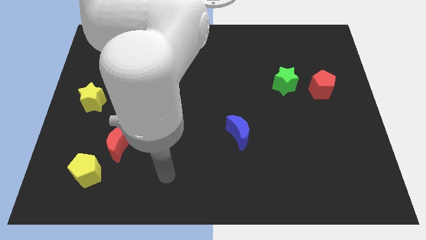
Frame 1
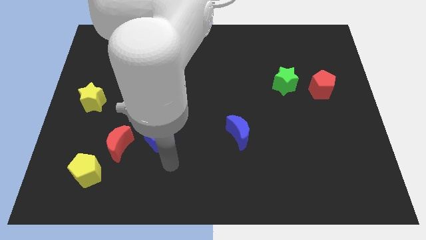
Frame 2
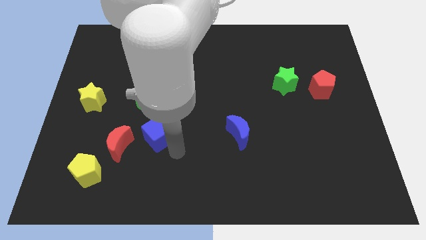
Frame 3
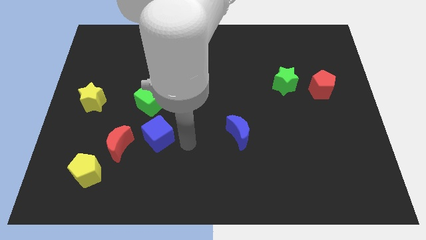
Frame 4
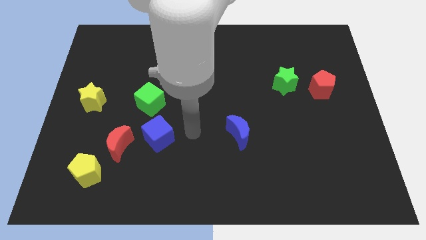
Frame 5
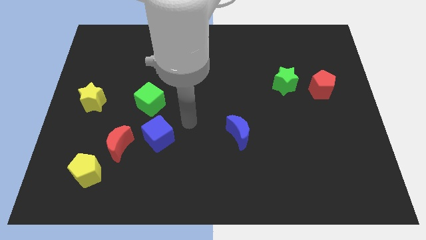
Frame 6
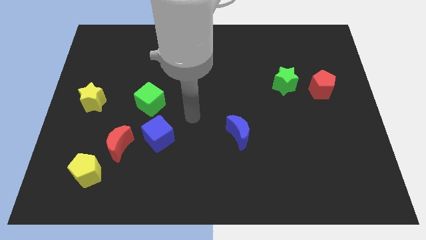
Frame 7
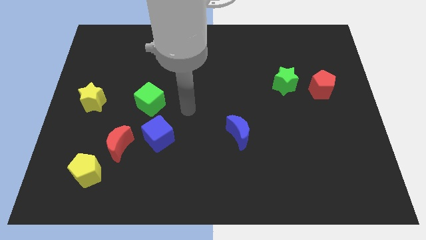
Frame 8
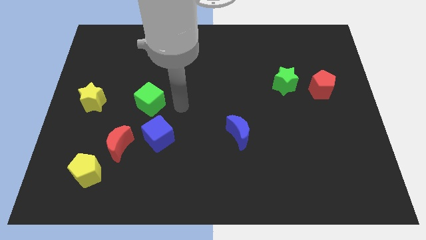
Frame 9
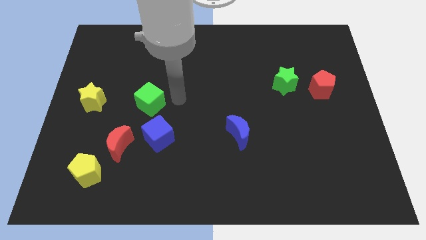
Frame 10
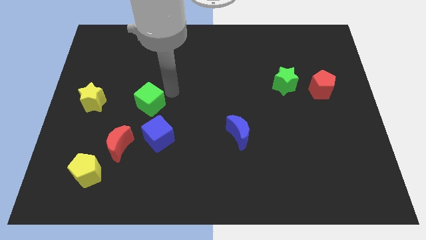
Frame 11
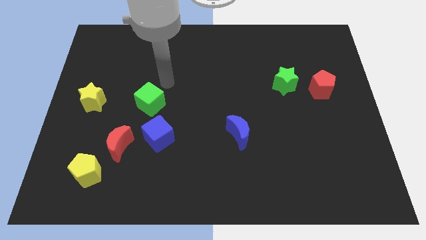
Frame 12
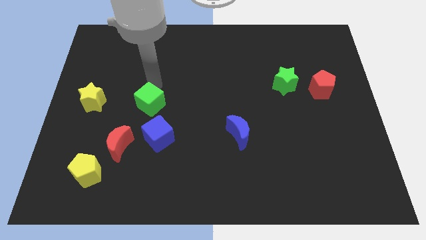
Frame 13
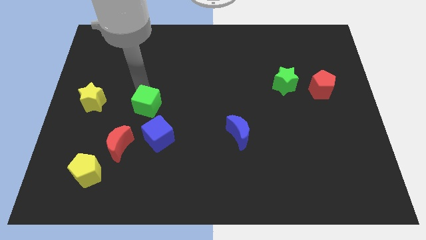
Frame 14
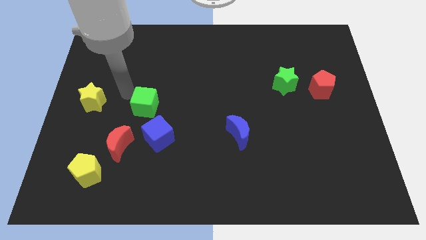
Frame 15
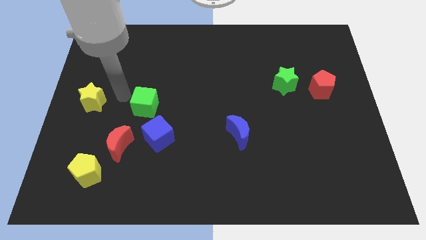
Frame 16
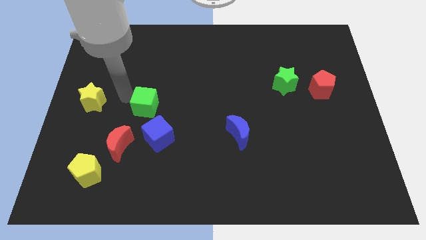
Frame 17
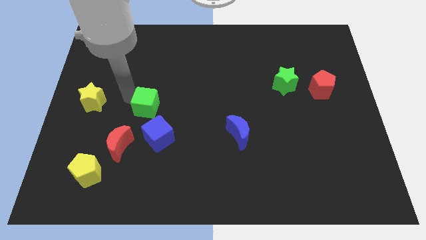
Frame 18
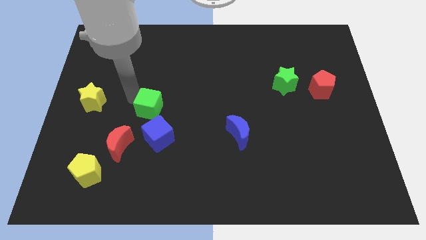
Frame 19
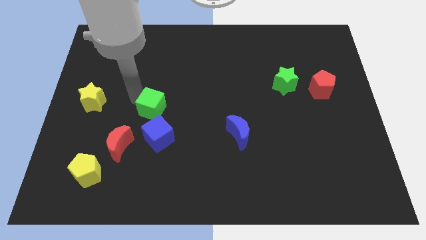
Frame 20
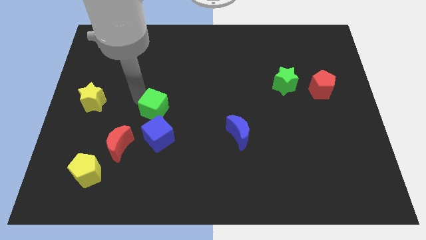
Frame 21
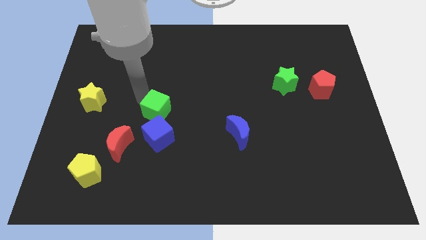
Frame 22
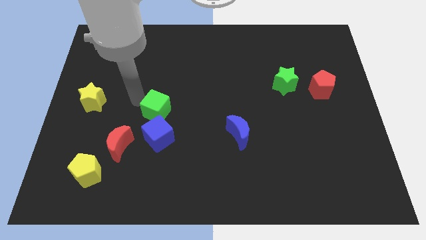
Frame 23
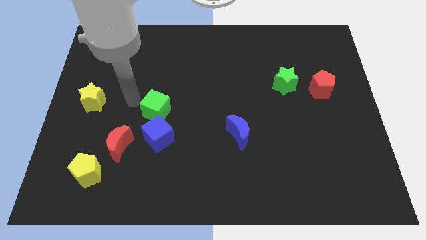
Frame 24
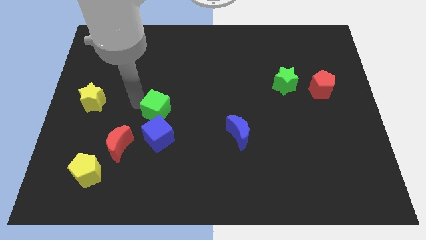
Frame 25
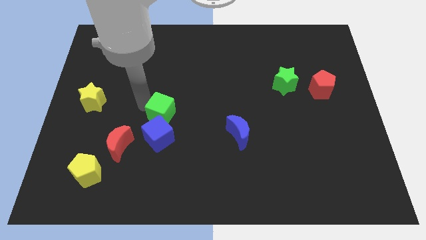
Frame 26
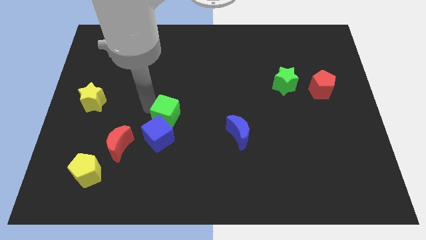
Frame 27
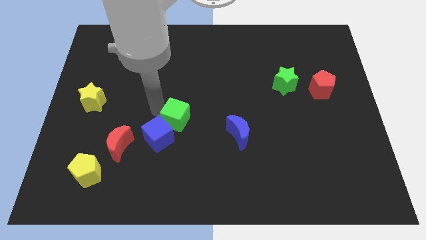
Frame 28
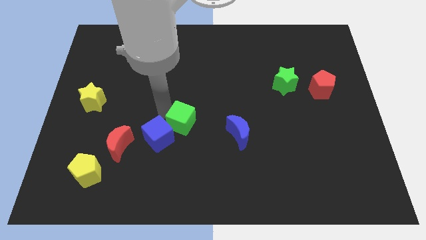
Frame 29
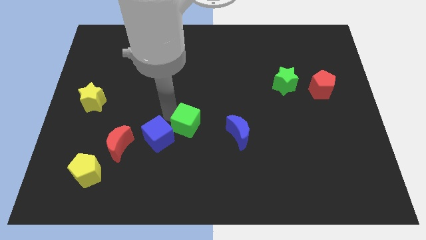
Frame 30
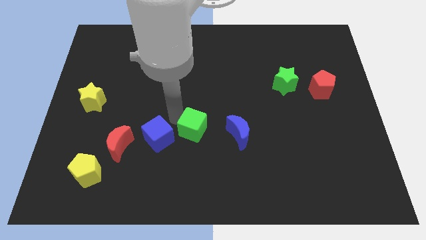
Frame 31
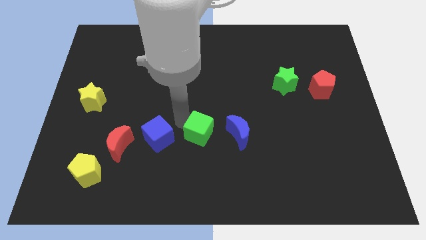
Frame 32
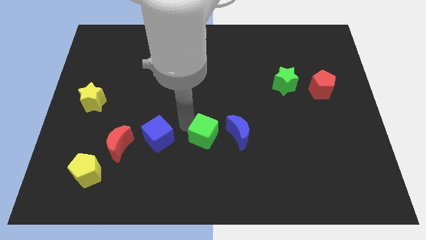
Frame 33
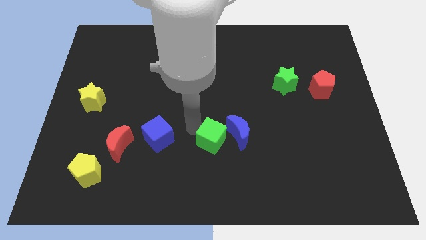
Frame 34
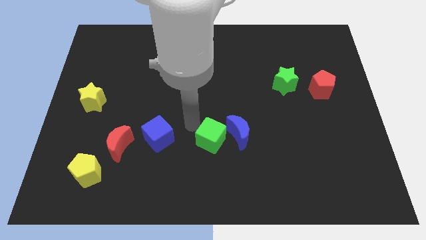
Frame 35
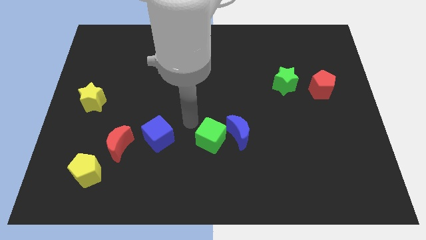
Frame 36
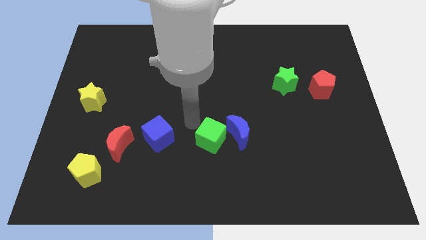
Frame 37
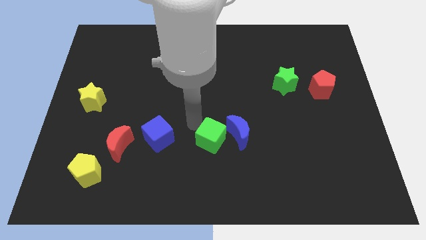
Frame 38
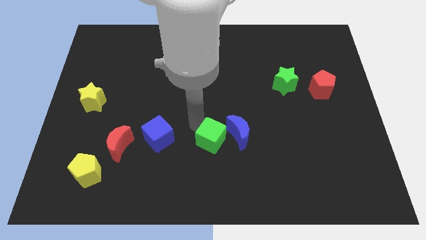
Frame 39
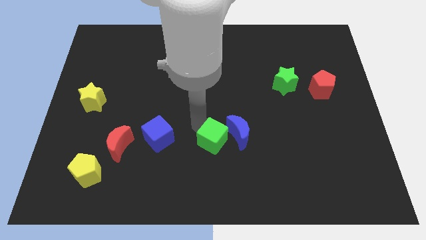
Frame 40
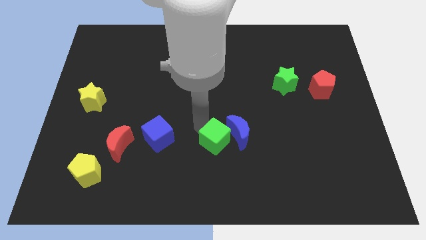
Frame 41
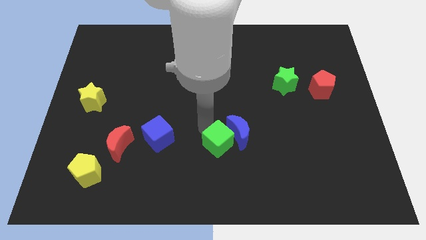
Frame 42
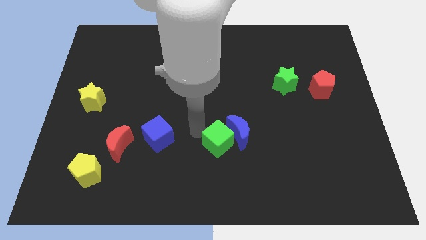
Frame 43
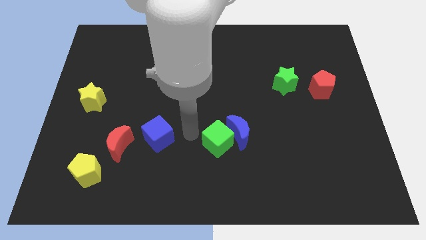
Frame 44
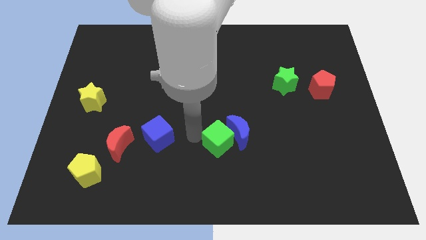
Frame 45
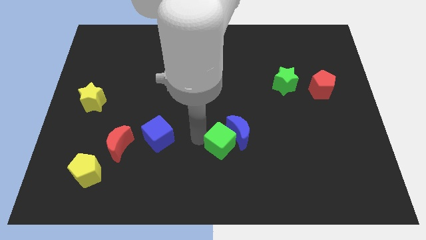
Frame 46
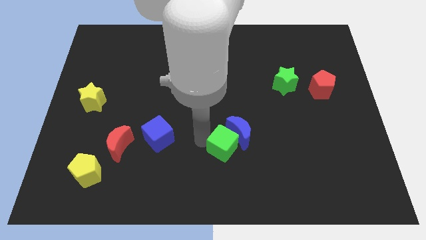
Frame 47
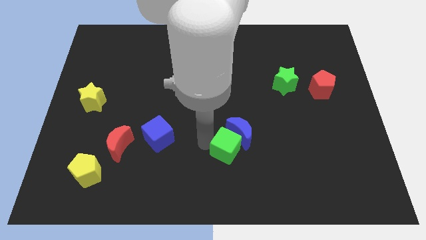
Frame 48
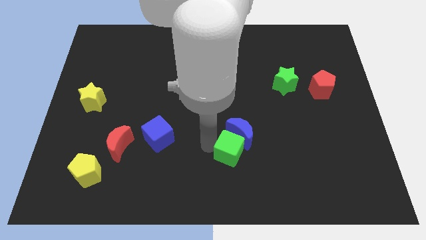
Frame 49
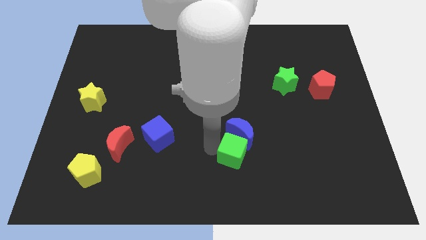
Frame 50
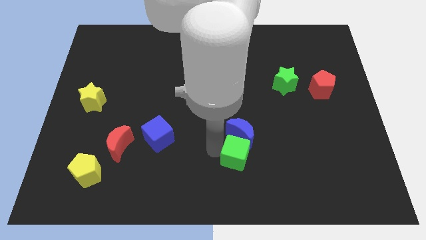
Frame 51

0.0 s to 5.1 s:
slide the green cube to the bottom right side of the blue moon

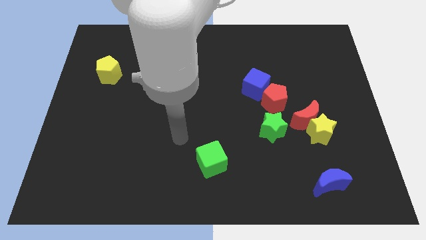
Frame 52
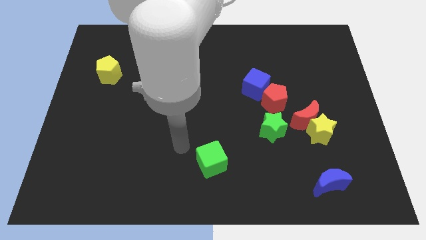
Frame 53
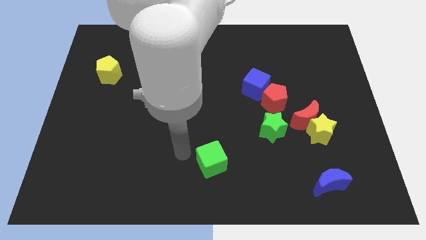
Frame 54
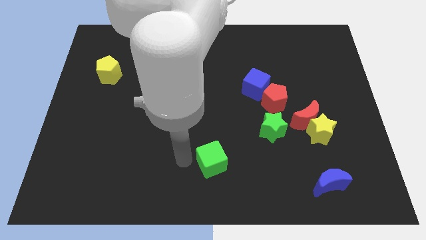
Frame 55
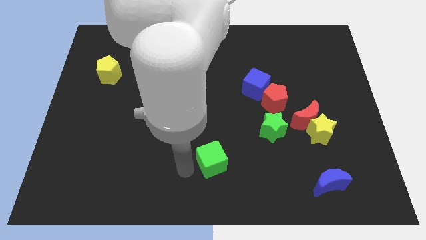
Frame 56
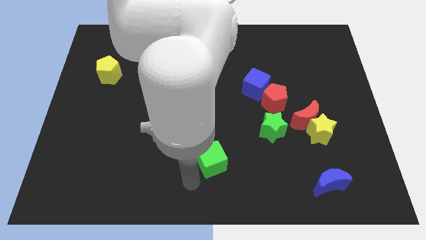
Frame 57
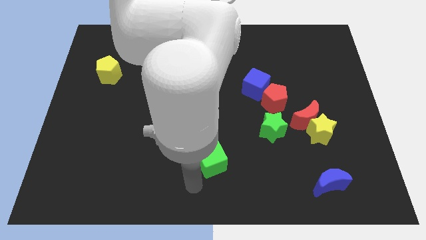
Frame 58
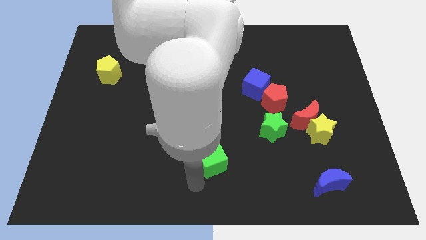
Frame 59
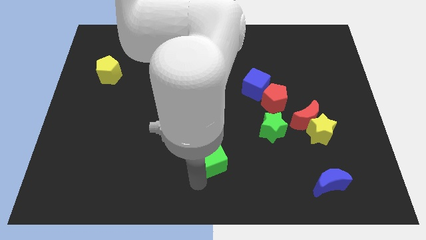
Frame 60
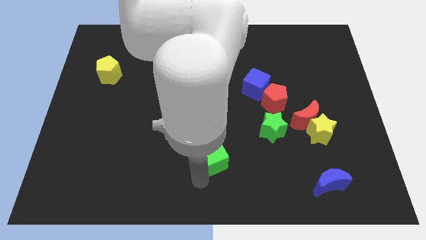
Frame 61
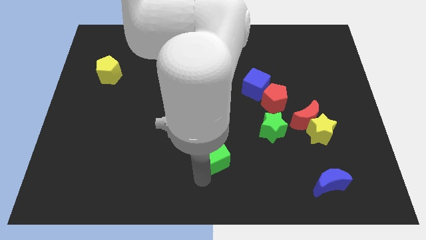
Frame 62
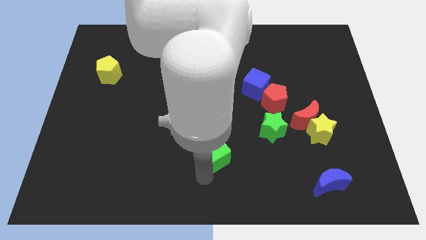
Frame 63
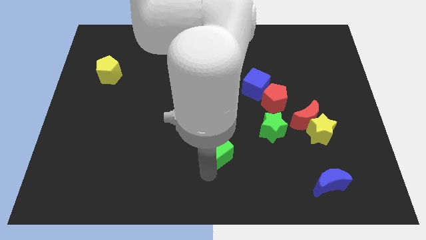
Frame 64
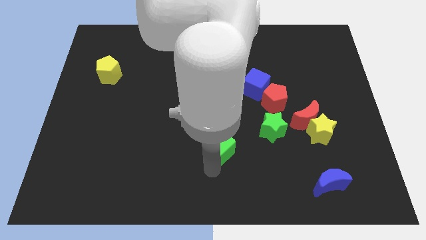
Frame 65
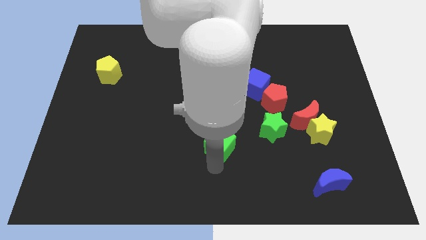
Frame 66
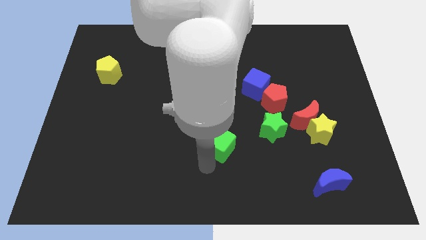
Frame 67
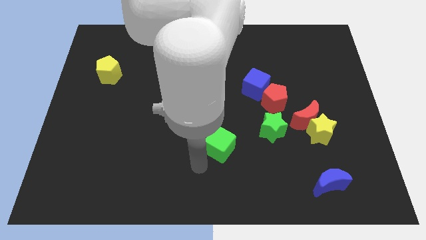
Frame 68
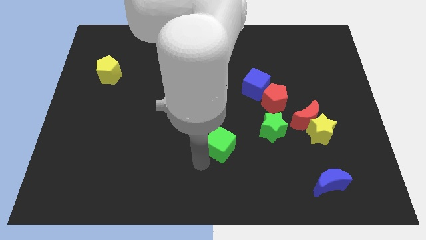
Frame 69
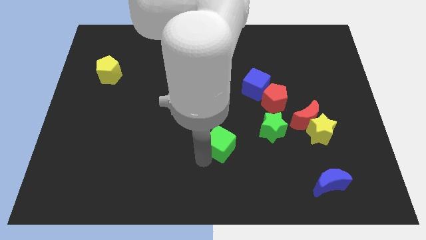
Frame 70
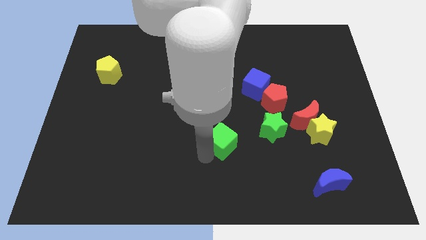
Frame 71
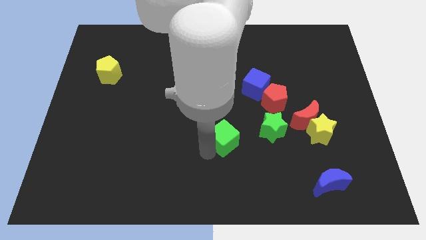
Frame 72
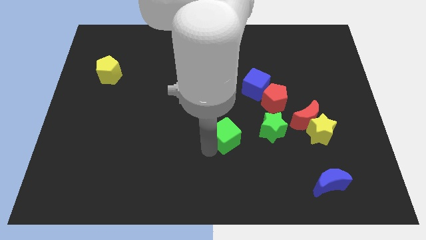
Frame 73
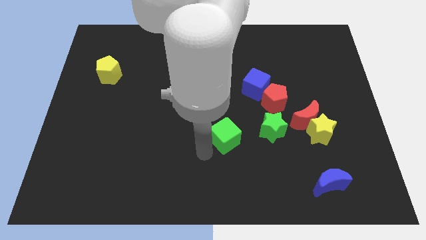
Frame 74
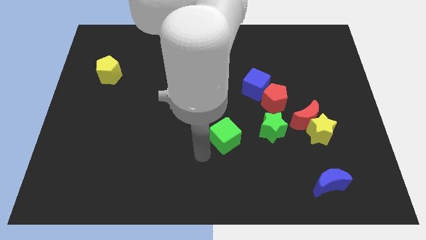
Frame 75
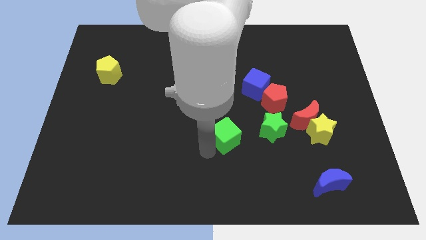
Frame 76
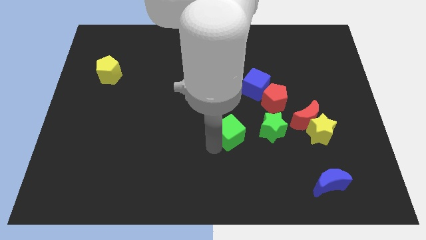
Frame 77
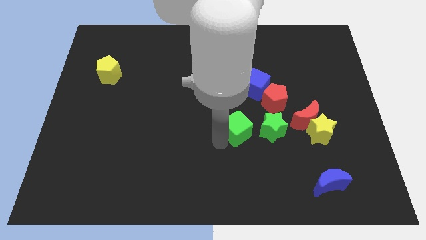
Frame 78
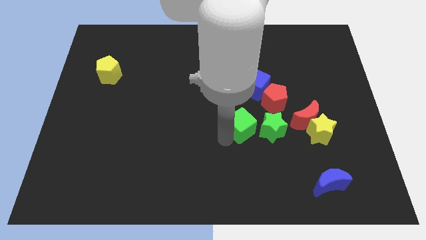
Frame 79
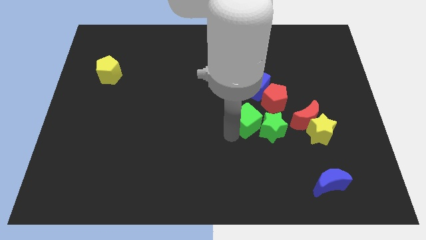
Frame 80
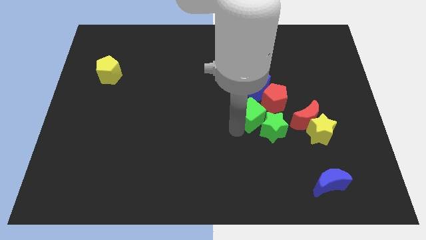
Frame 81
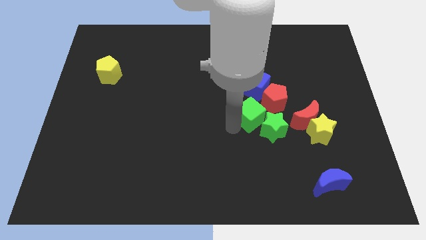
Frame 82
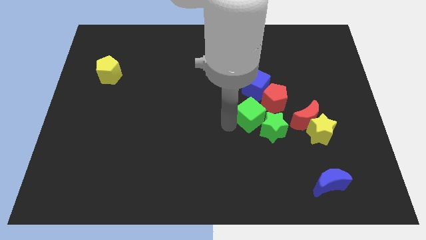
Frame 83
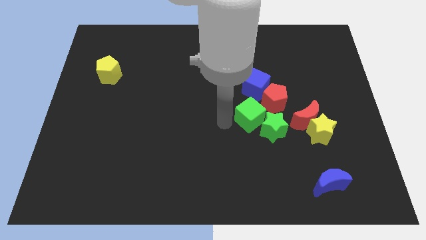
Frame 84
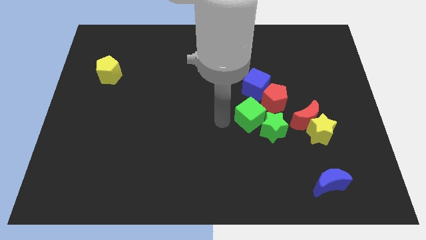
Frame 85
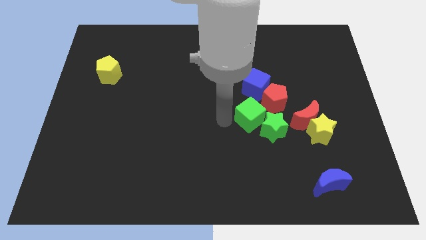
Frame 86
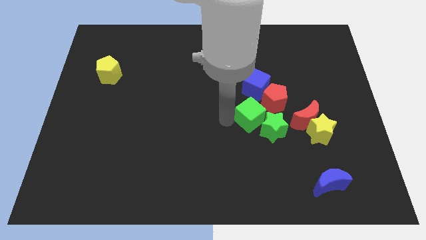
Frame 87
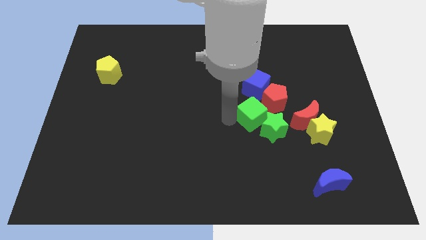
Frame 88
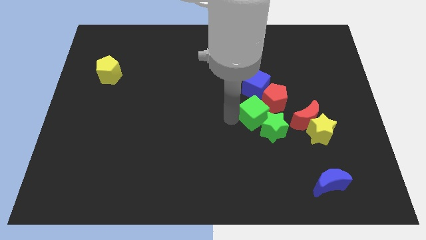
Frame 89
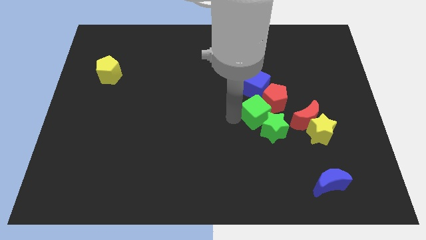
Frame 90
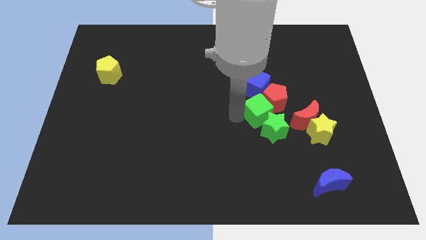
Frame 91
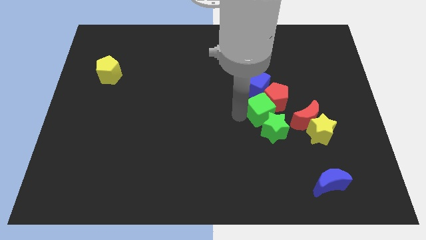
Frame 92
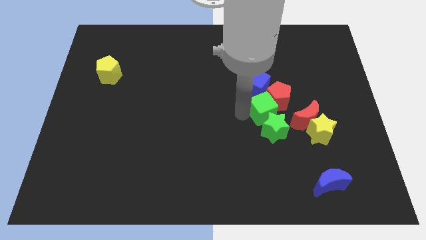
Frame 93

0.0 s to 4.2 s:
slide the green cube to the bottom right of the blue cube
